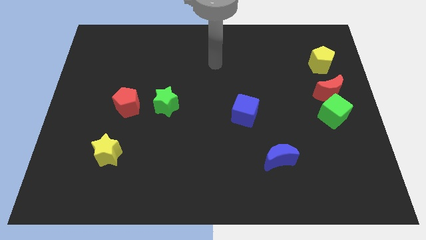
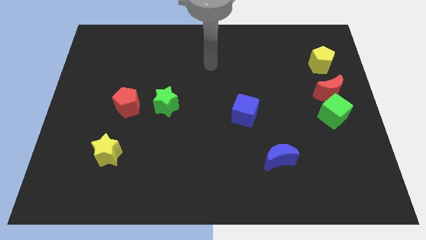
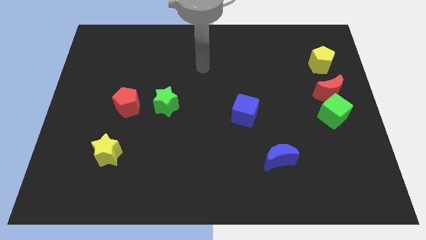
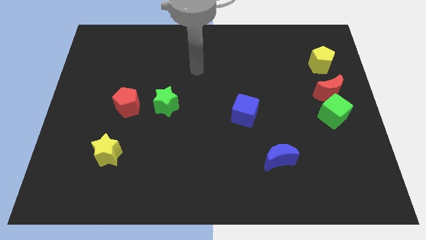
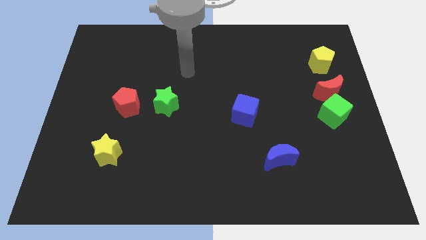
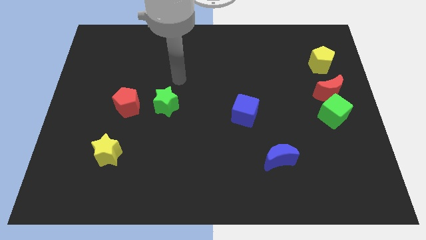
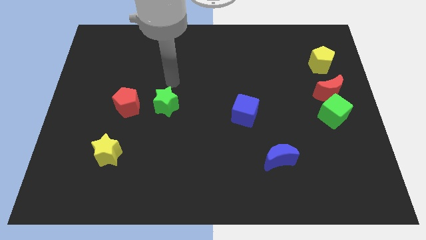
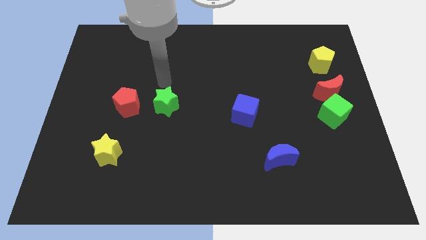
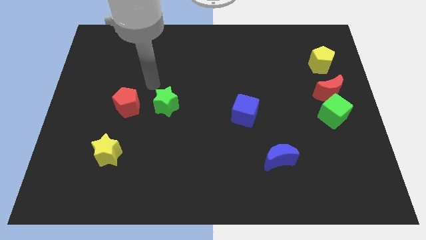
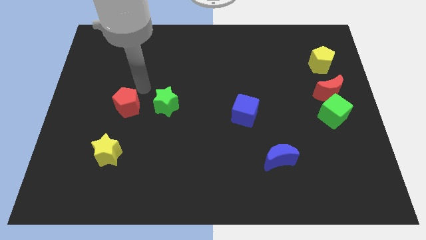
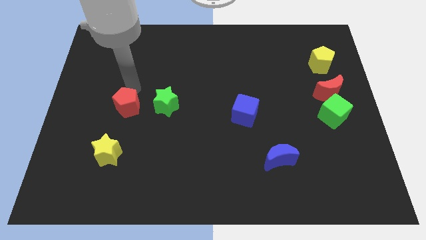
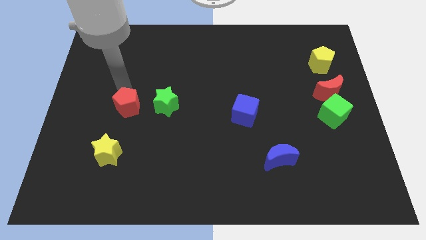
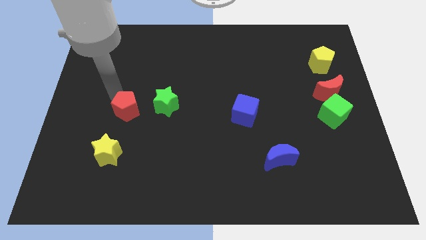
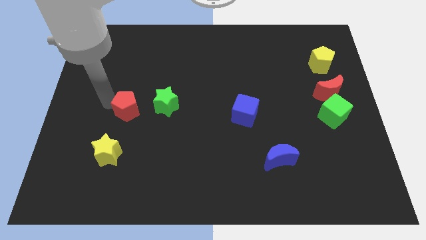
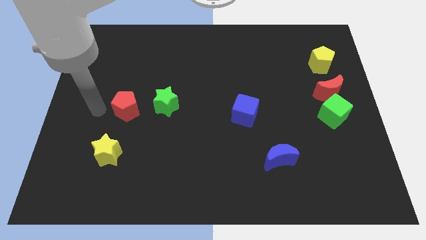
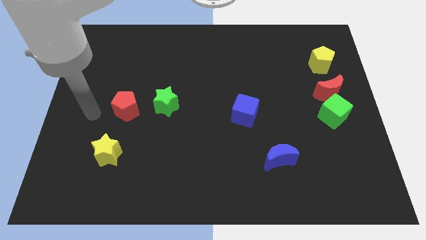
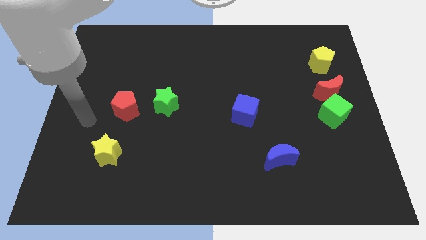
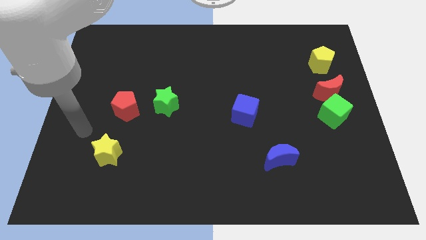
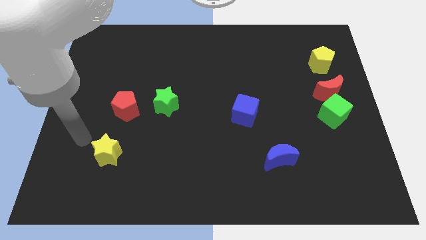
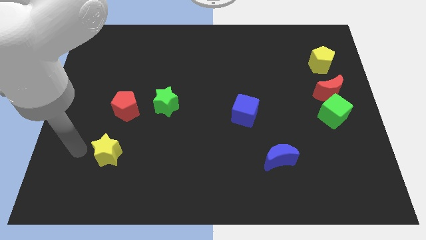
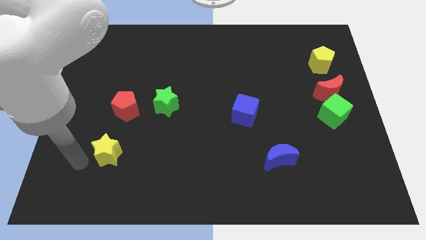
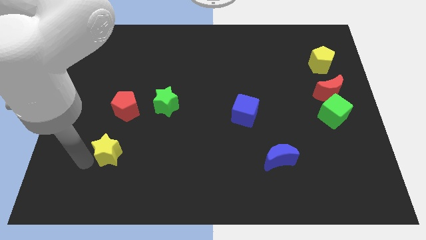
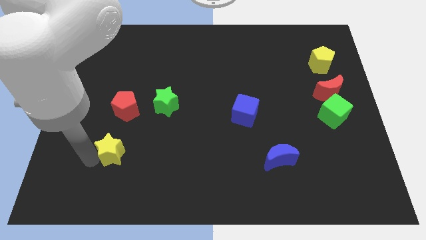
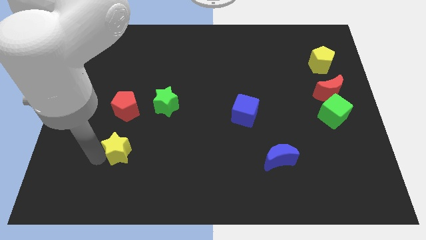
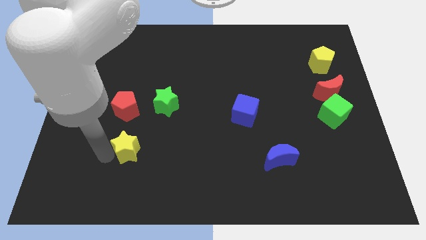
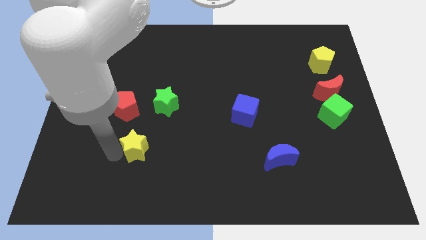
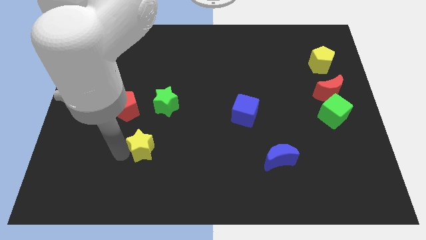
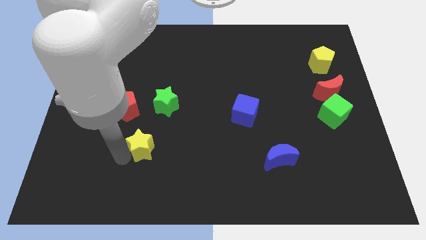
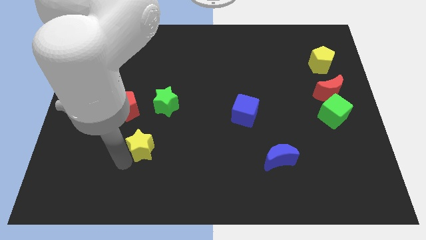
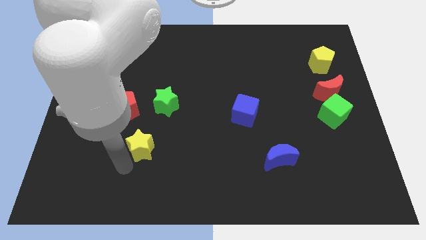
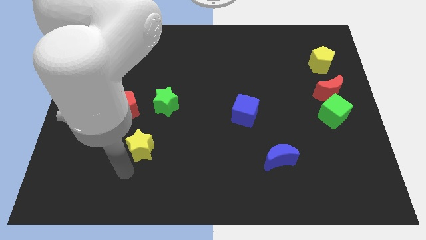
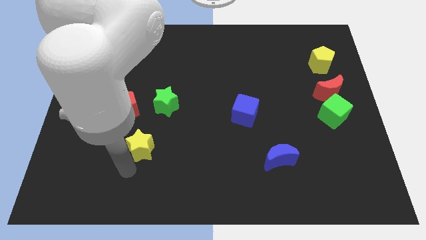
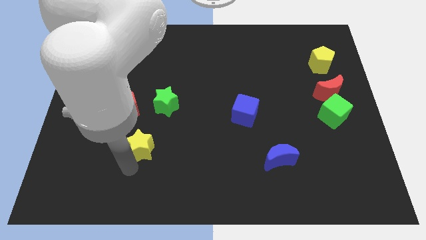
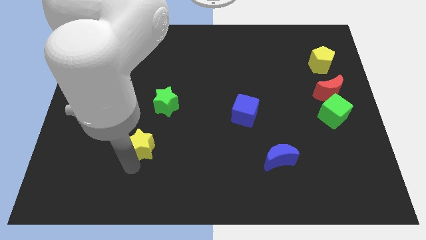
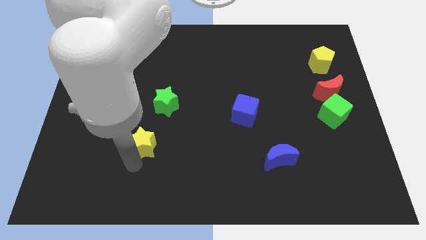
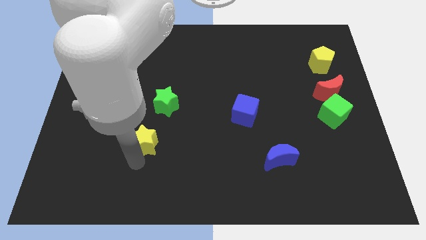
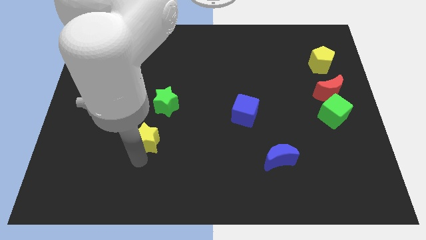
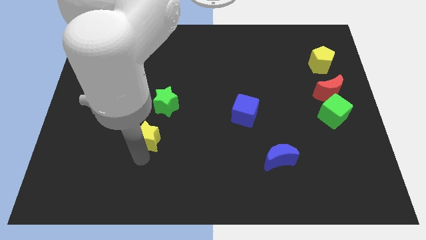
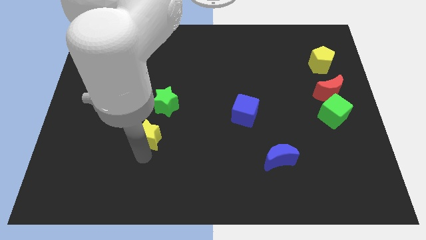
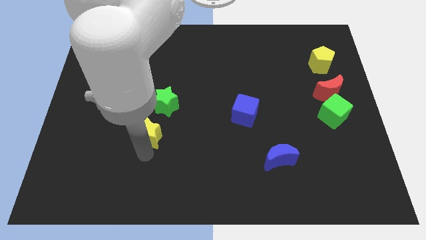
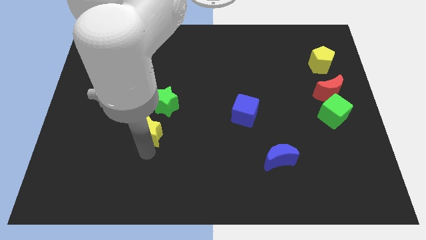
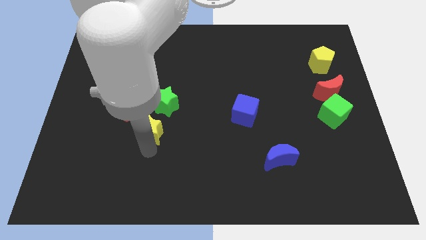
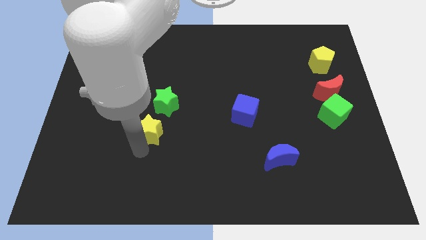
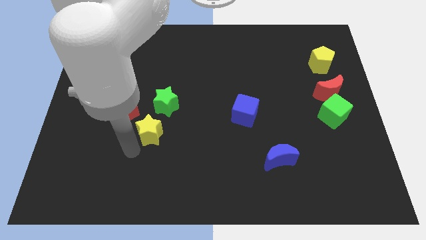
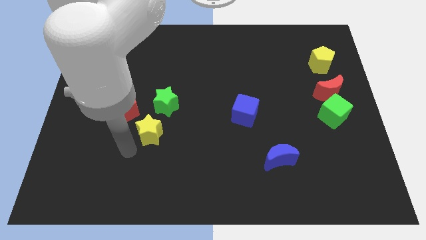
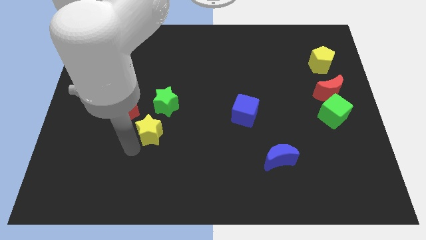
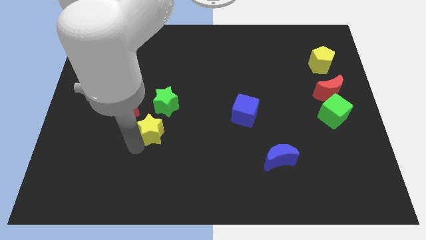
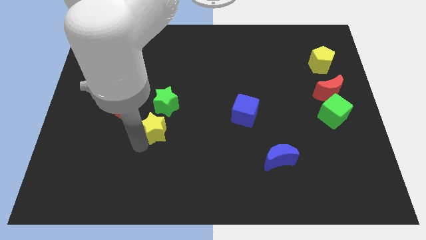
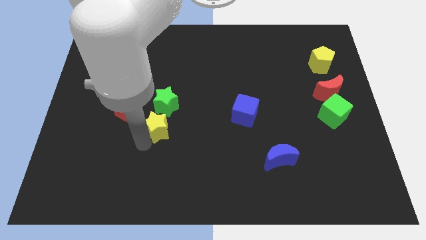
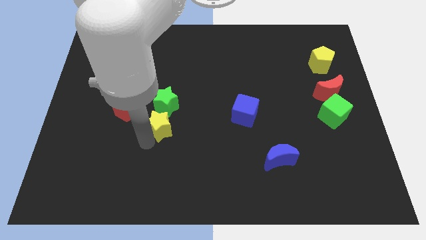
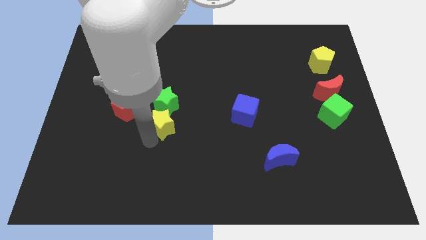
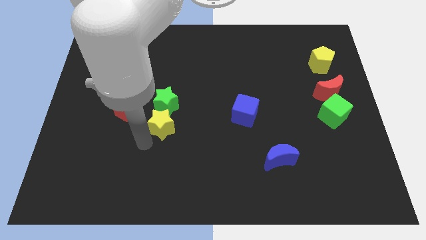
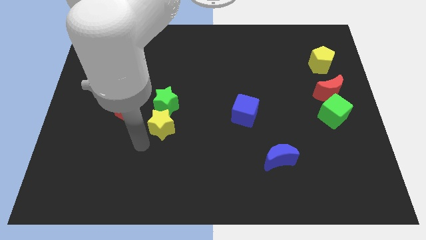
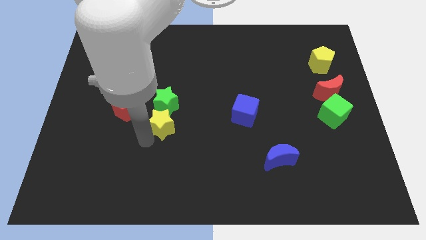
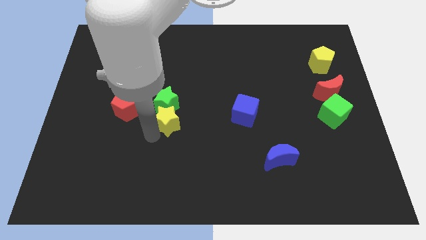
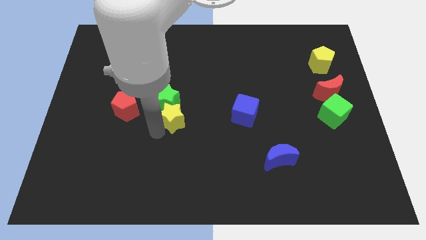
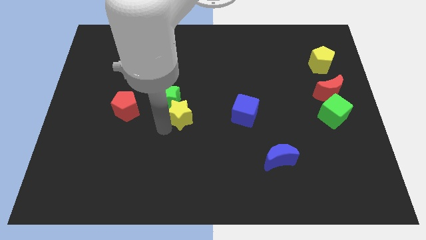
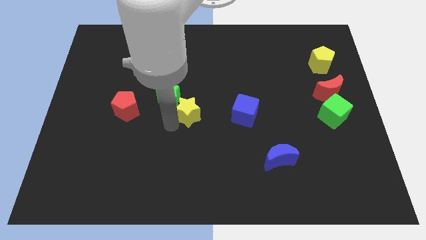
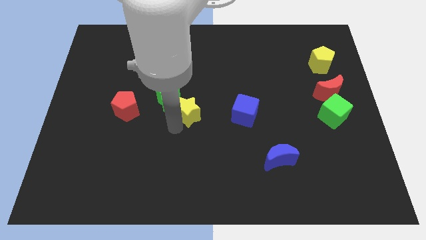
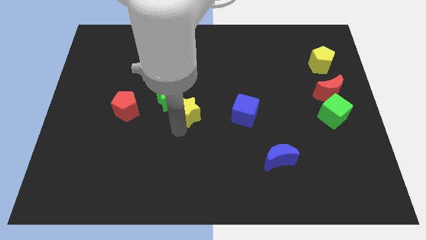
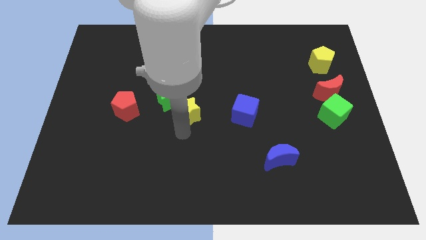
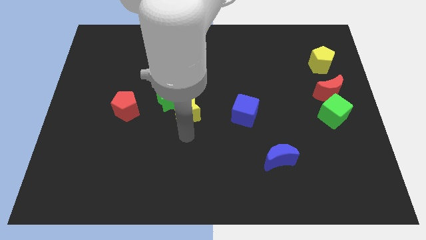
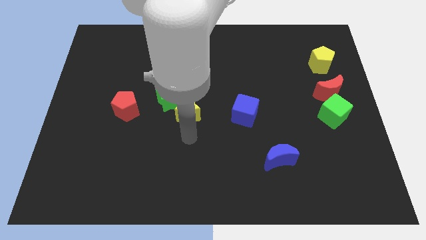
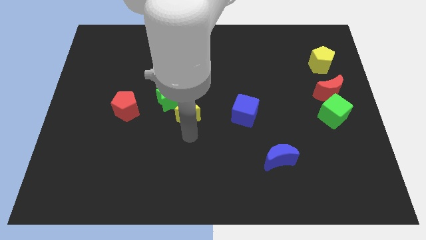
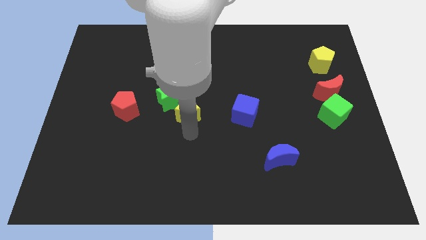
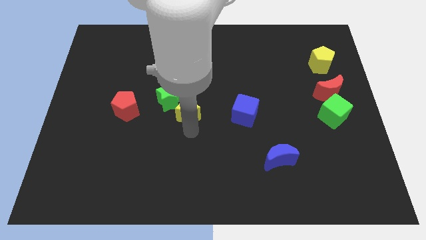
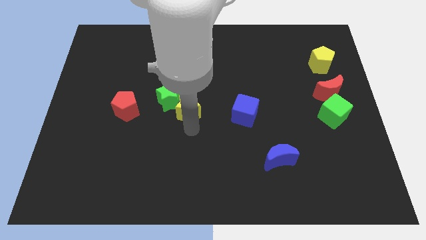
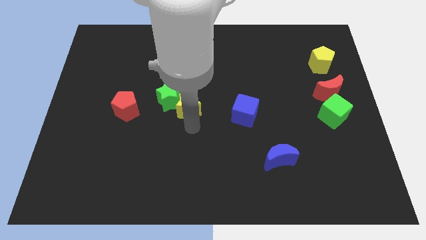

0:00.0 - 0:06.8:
push the yellow star diagonally upwards and to the right

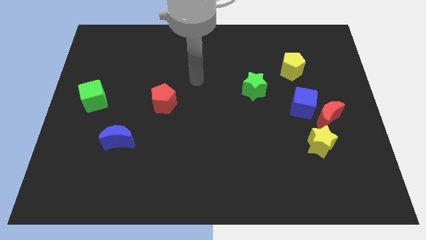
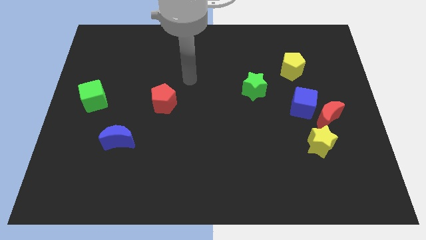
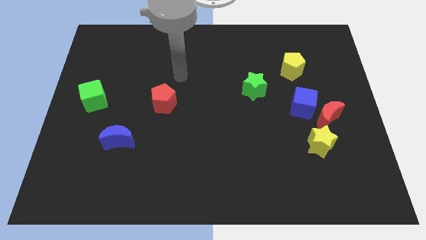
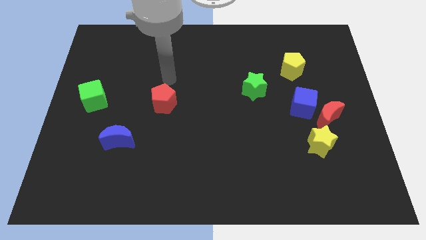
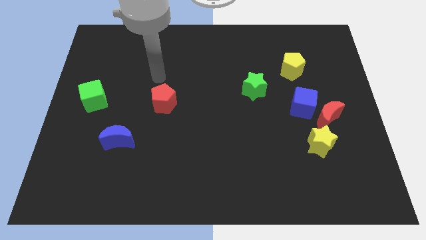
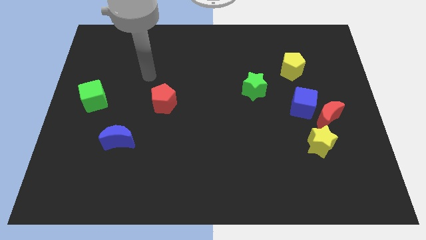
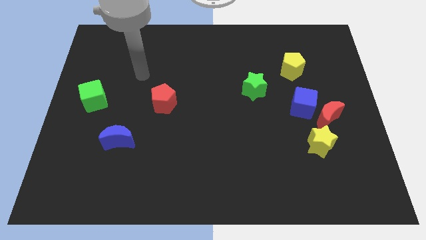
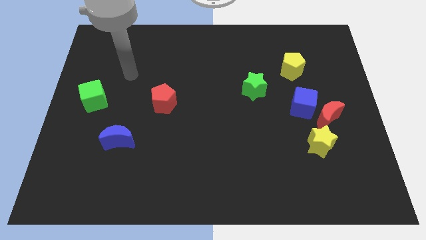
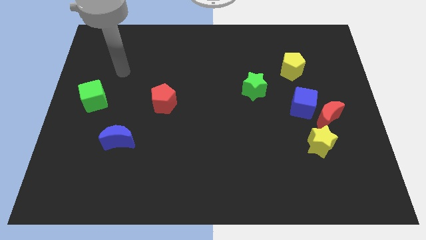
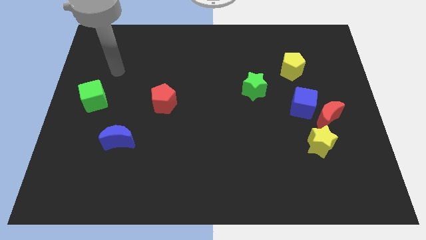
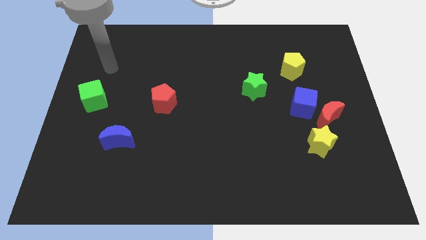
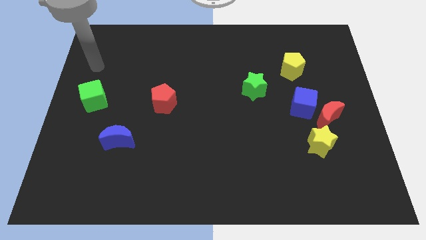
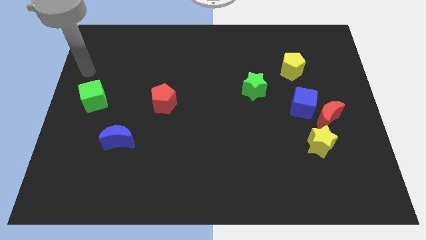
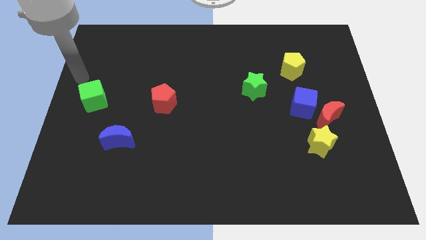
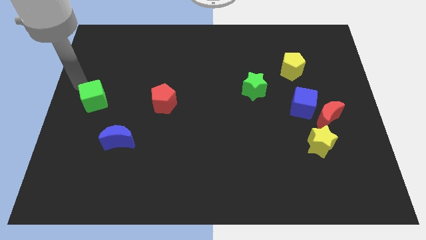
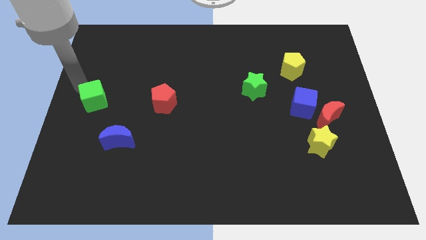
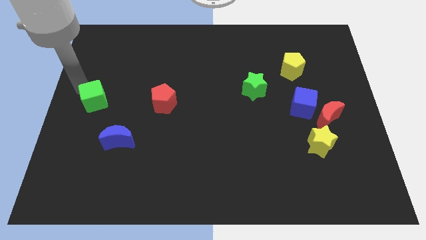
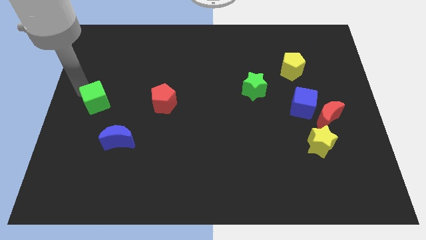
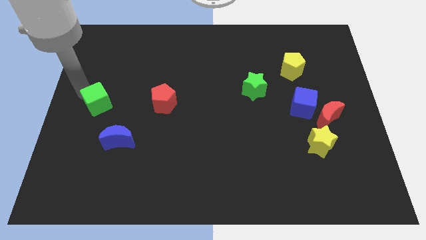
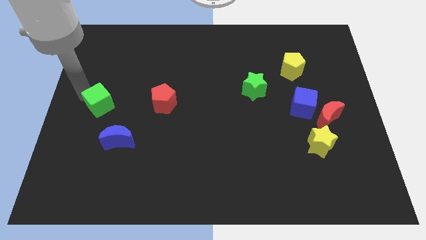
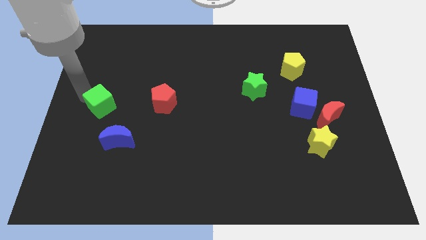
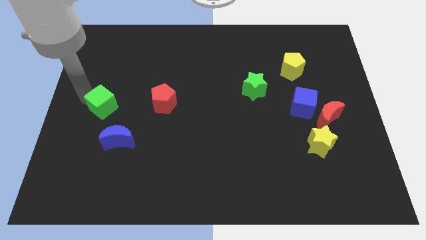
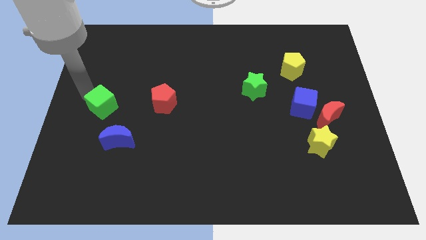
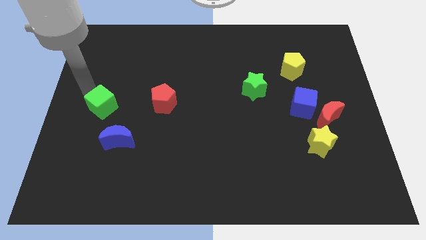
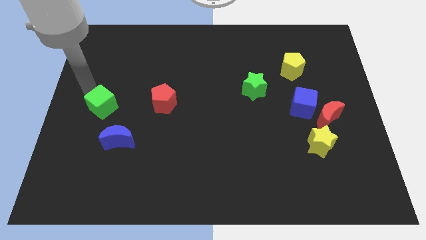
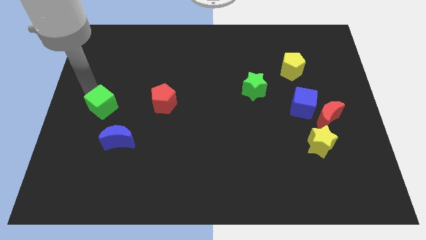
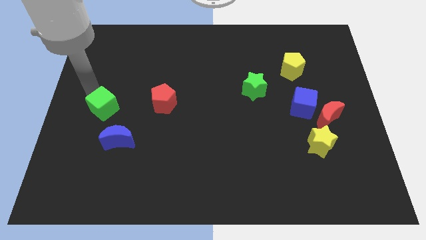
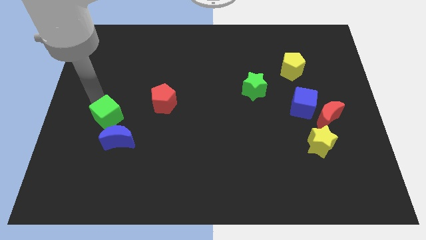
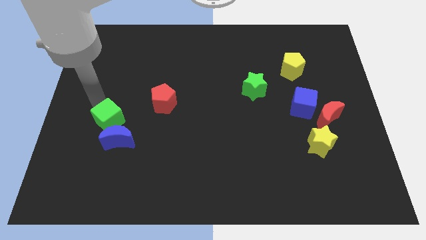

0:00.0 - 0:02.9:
slightly slide the green cube down and then right
